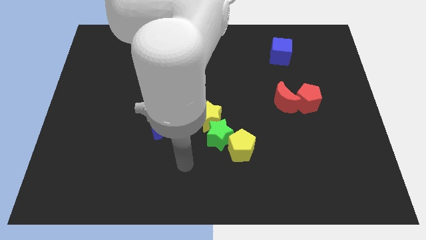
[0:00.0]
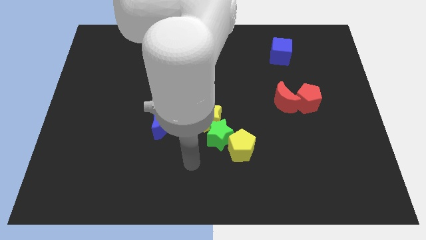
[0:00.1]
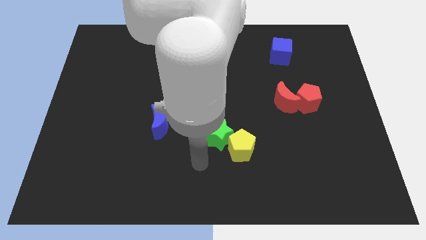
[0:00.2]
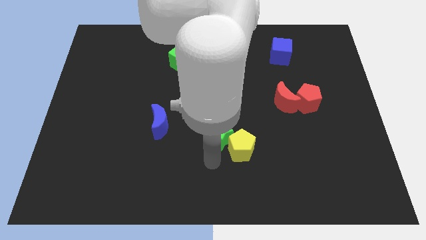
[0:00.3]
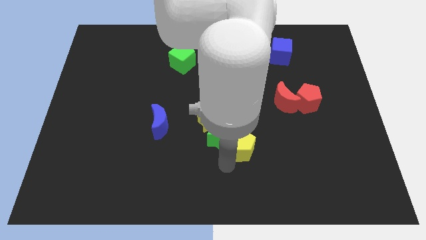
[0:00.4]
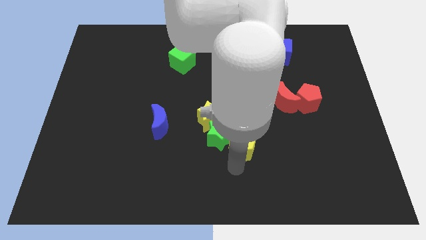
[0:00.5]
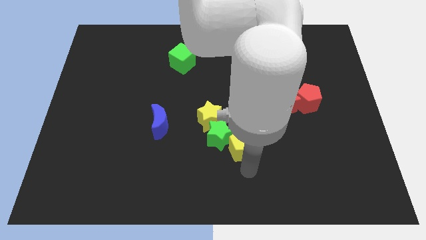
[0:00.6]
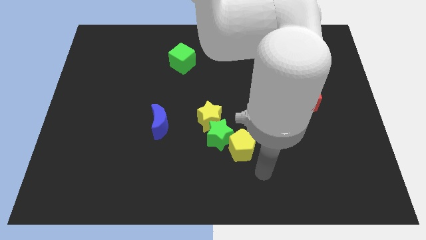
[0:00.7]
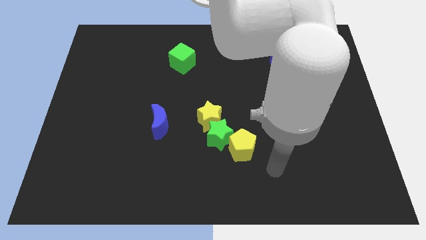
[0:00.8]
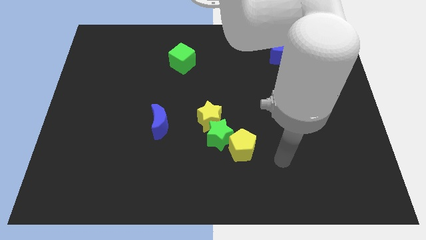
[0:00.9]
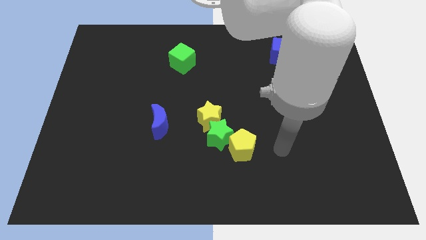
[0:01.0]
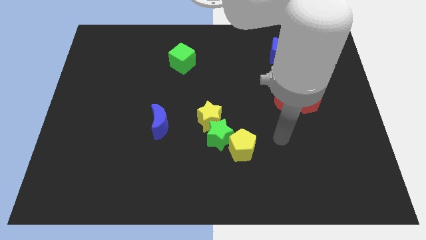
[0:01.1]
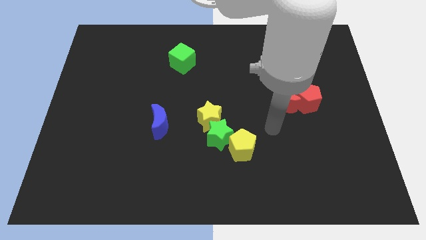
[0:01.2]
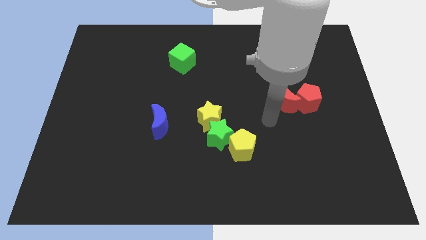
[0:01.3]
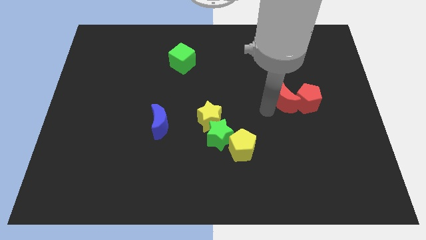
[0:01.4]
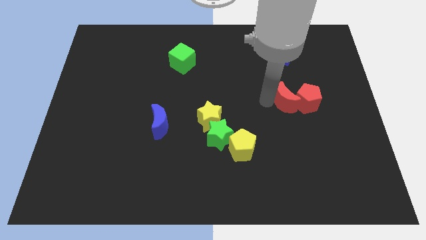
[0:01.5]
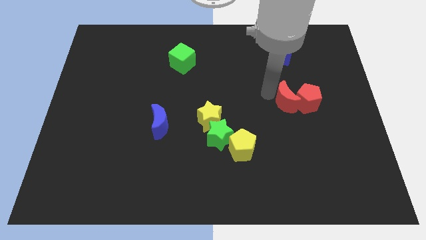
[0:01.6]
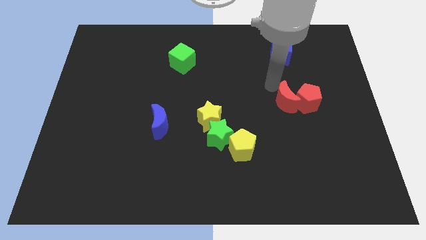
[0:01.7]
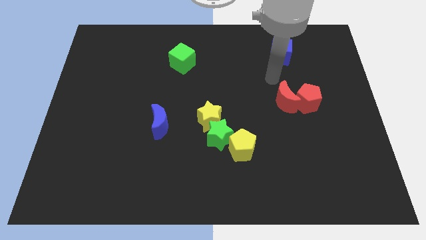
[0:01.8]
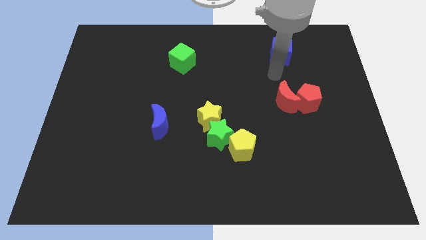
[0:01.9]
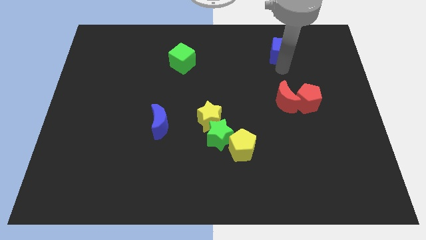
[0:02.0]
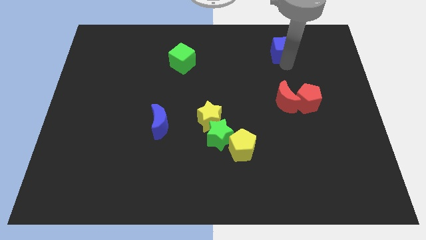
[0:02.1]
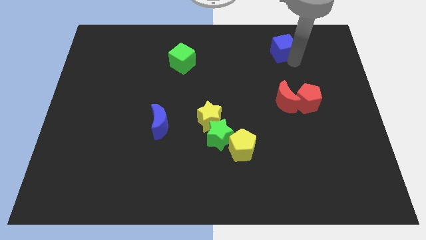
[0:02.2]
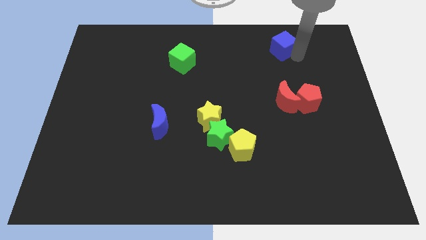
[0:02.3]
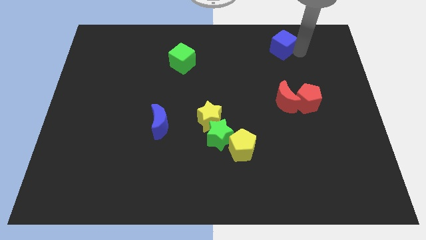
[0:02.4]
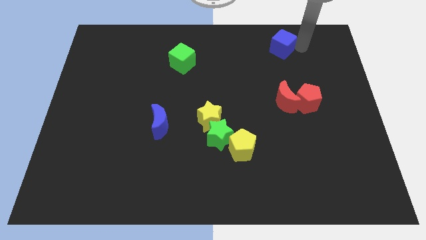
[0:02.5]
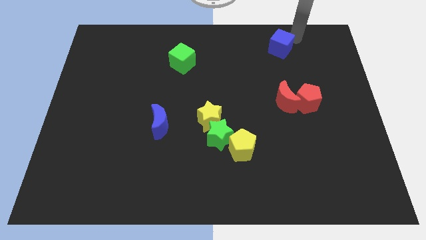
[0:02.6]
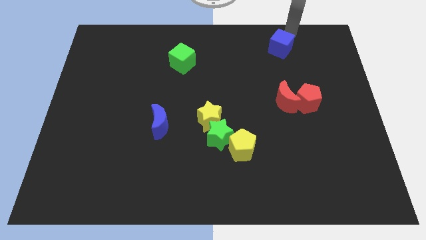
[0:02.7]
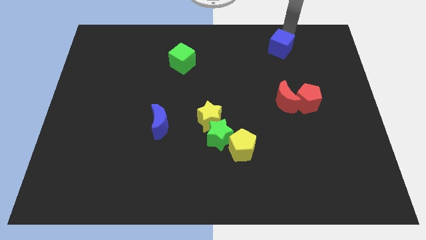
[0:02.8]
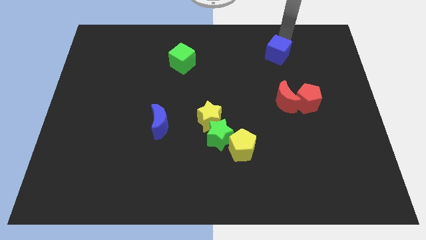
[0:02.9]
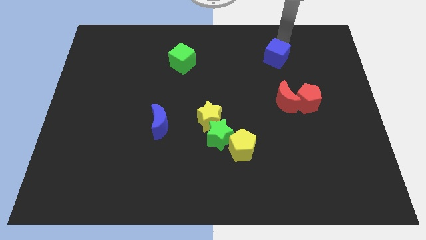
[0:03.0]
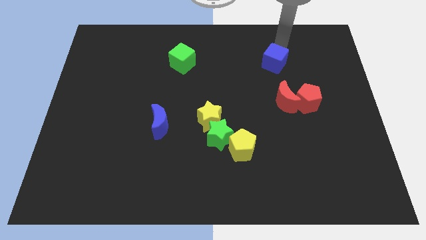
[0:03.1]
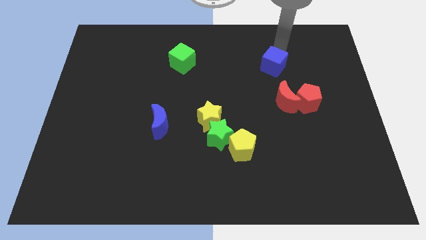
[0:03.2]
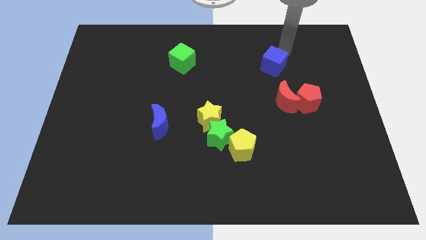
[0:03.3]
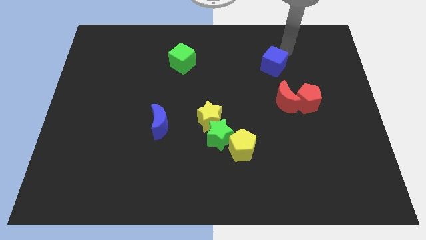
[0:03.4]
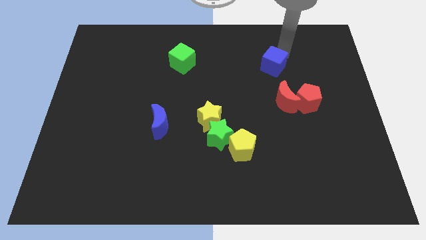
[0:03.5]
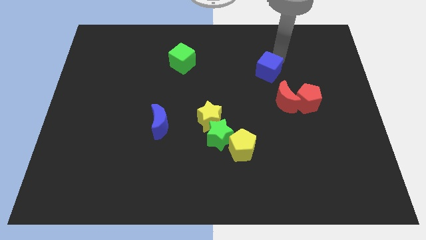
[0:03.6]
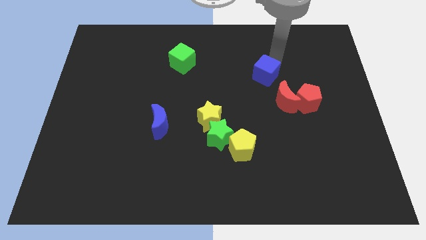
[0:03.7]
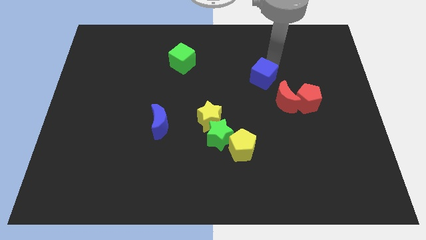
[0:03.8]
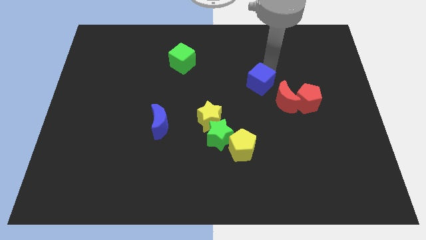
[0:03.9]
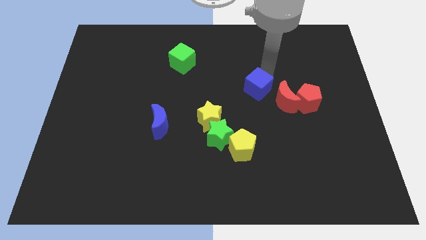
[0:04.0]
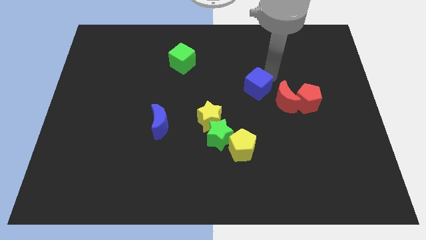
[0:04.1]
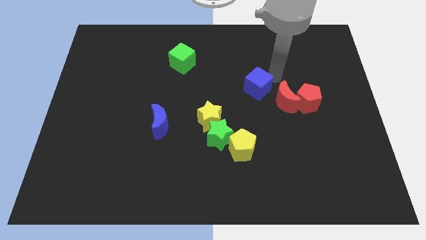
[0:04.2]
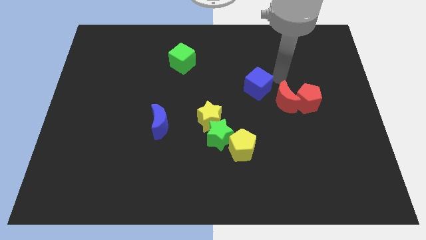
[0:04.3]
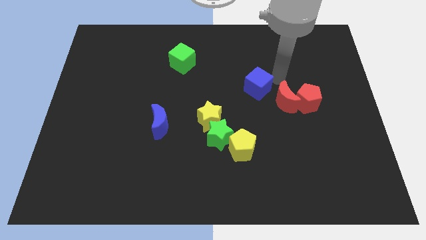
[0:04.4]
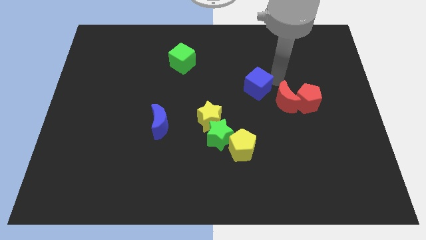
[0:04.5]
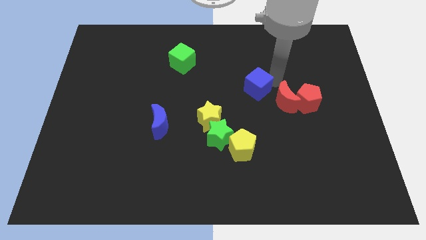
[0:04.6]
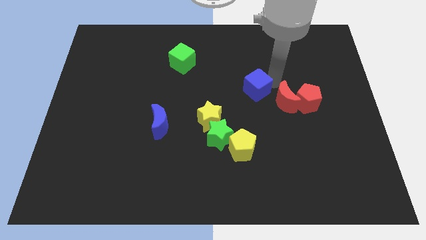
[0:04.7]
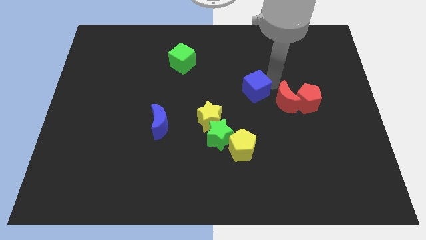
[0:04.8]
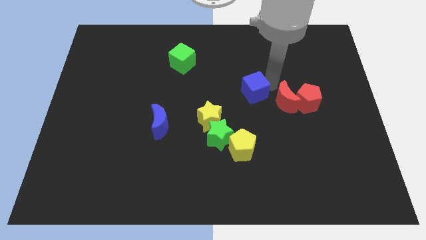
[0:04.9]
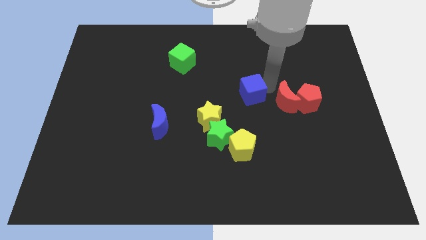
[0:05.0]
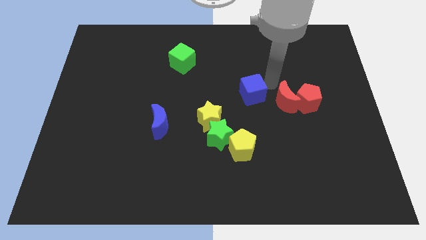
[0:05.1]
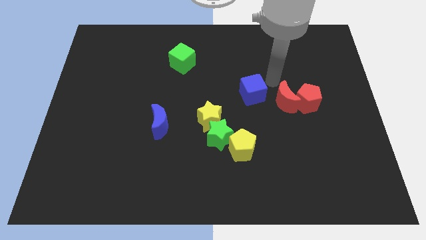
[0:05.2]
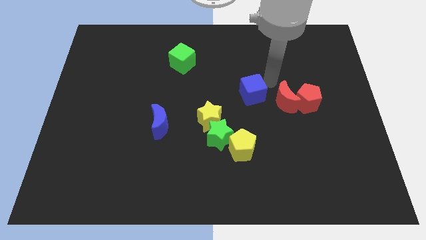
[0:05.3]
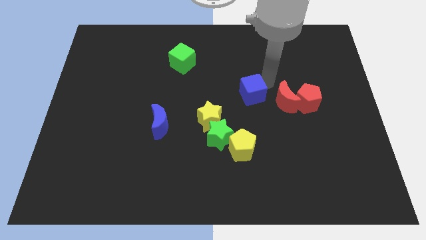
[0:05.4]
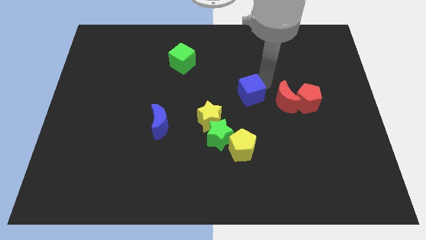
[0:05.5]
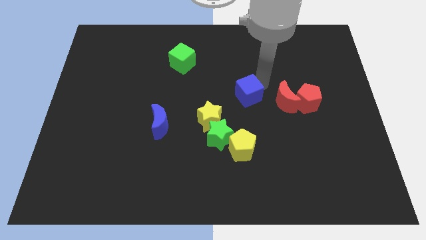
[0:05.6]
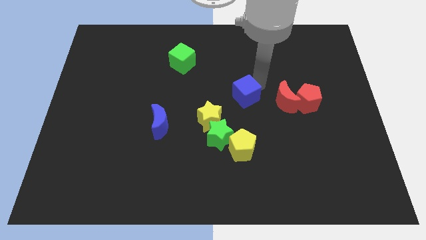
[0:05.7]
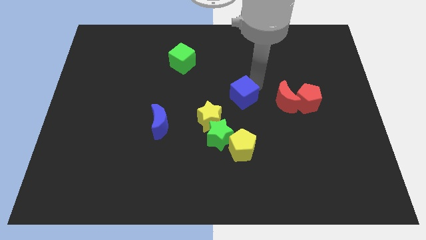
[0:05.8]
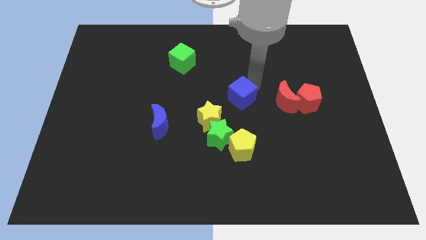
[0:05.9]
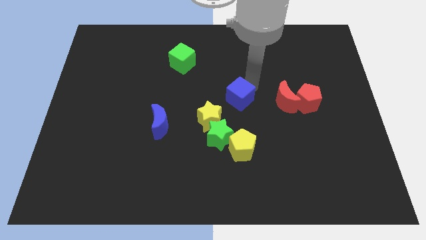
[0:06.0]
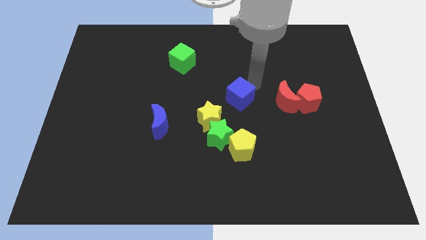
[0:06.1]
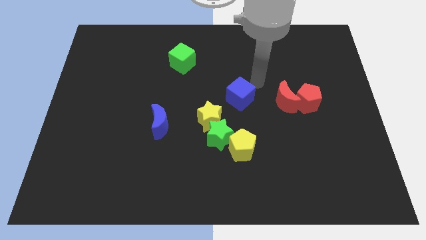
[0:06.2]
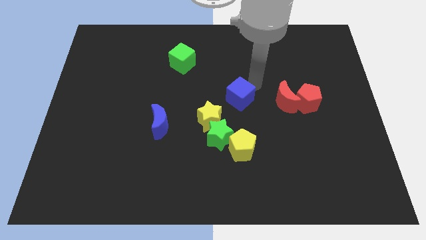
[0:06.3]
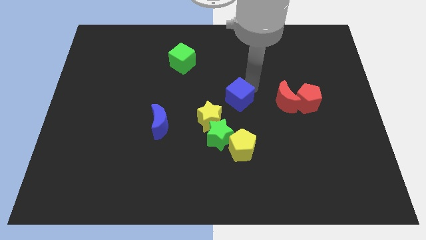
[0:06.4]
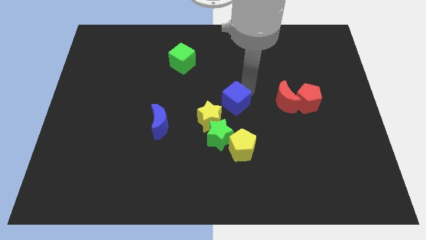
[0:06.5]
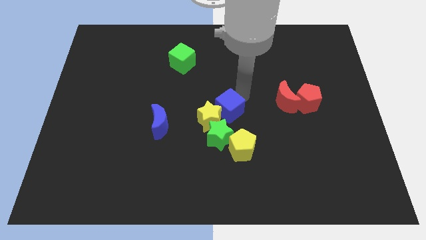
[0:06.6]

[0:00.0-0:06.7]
put the blue cube towards the yellow star

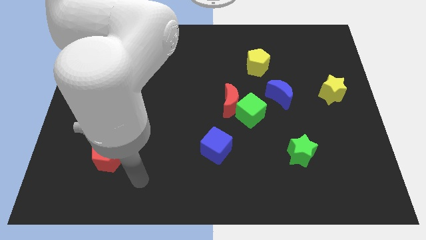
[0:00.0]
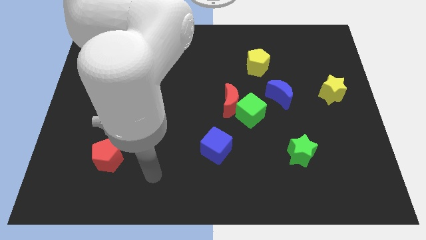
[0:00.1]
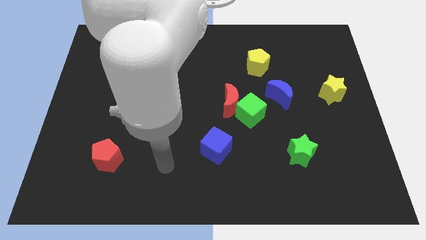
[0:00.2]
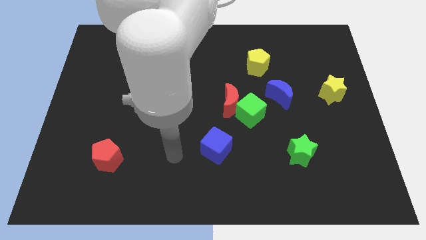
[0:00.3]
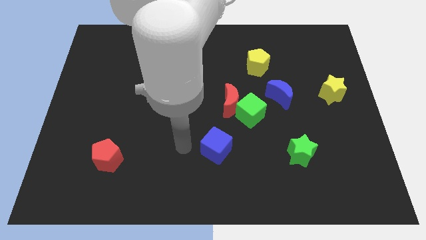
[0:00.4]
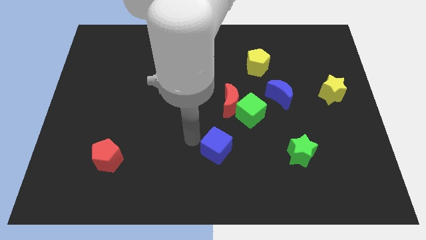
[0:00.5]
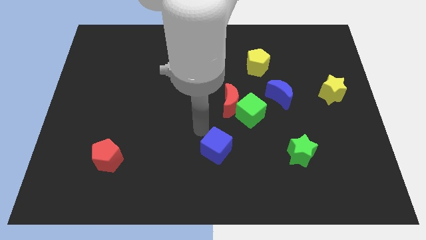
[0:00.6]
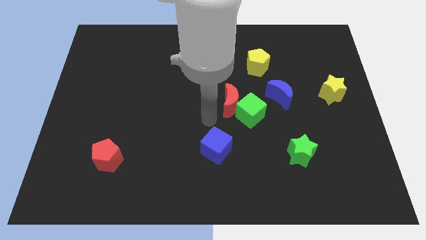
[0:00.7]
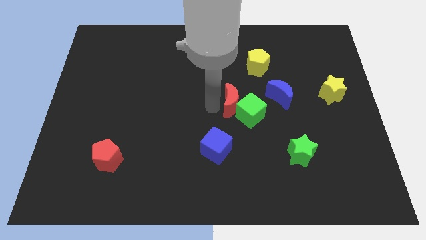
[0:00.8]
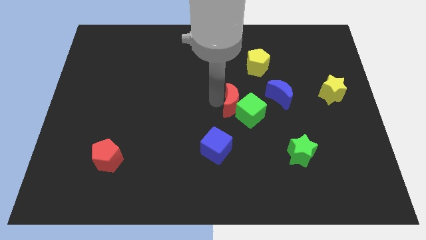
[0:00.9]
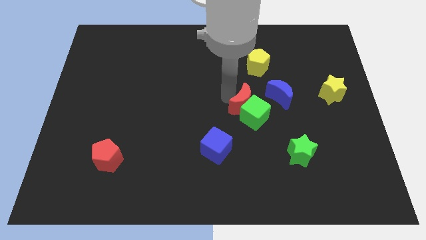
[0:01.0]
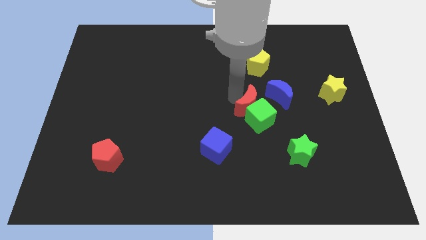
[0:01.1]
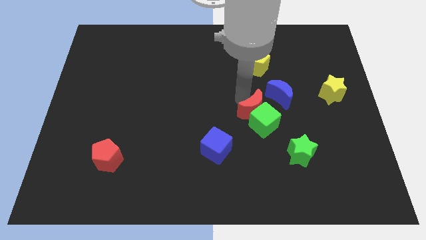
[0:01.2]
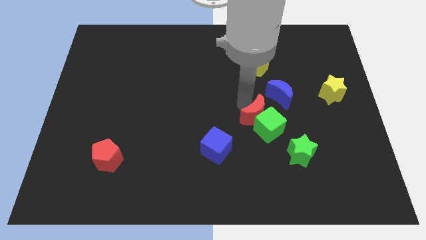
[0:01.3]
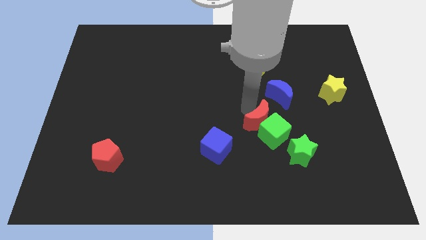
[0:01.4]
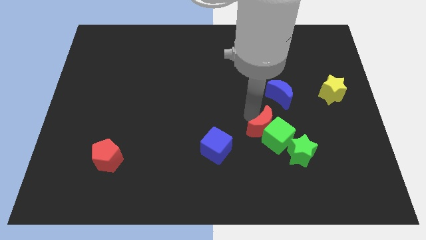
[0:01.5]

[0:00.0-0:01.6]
push the green cube next to the green star
